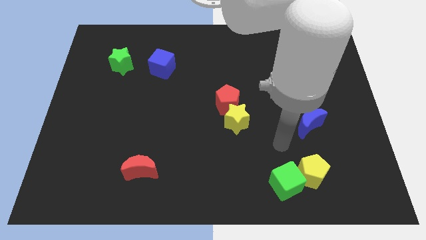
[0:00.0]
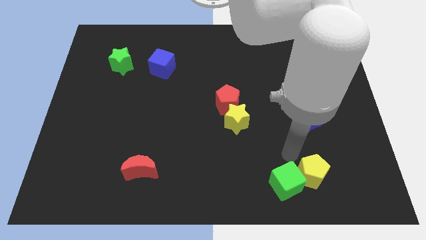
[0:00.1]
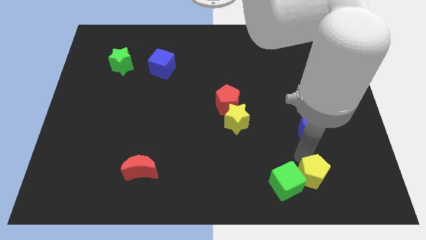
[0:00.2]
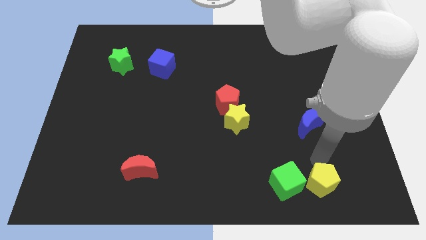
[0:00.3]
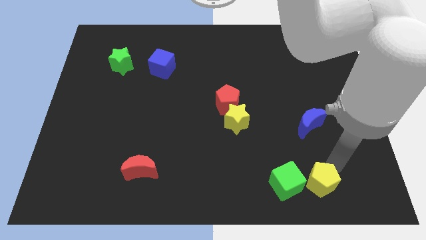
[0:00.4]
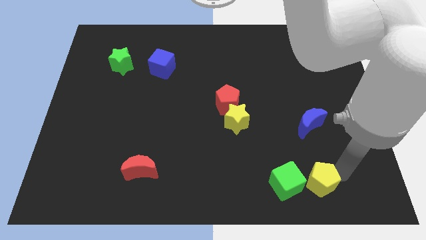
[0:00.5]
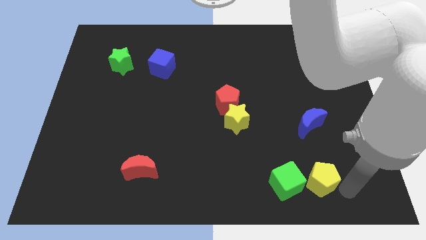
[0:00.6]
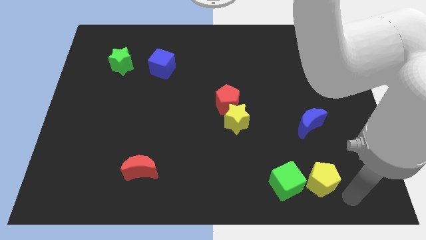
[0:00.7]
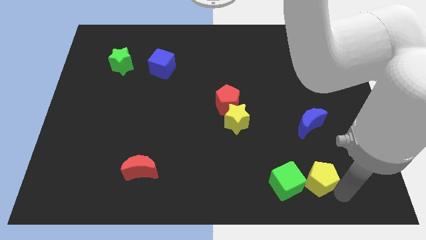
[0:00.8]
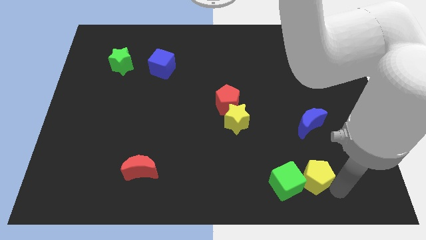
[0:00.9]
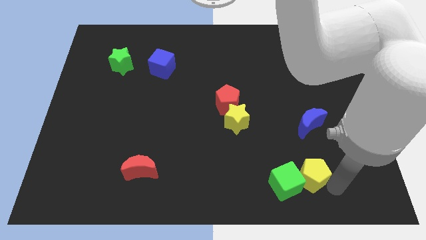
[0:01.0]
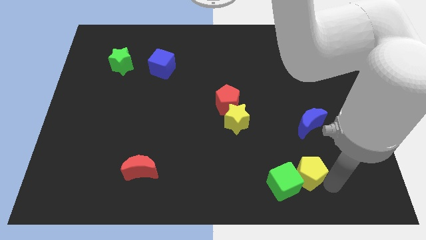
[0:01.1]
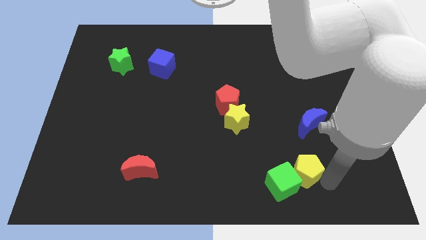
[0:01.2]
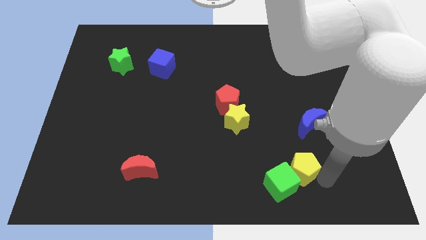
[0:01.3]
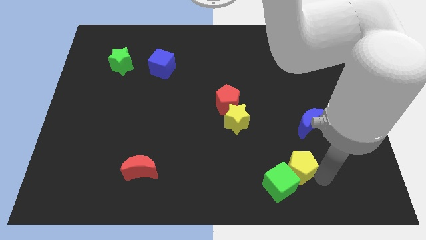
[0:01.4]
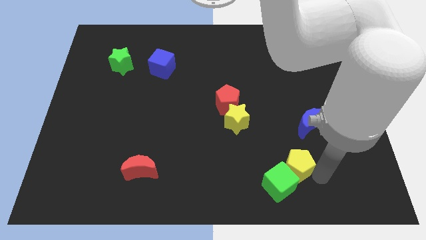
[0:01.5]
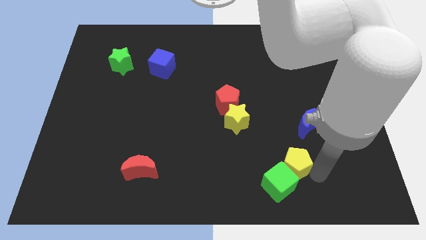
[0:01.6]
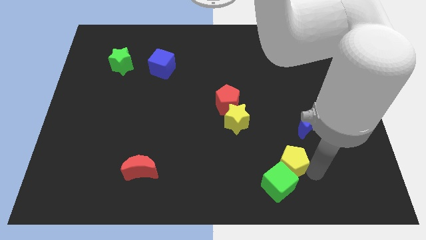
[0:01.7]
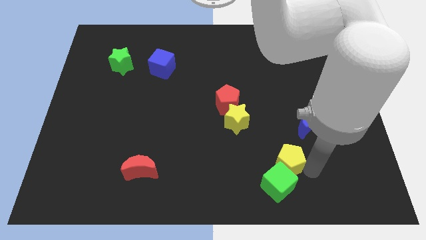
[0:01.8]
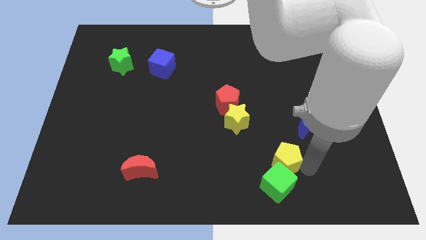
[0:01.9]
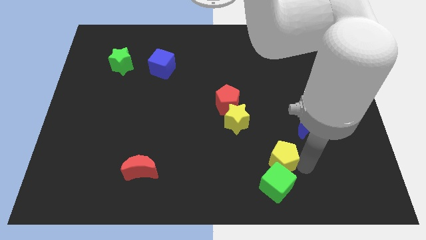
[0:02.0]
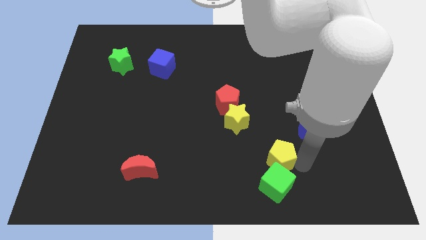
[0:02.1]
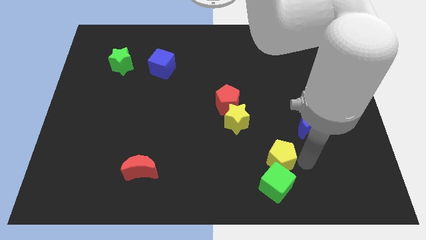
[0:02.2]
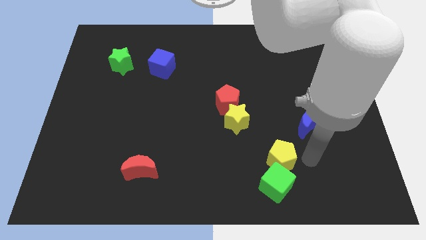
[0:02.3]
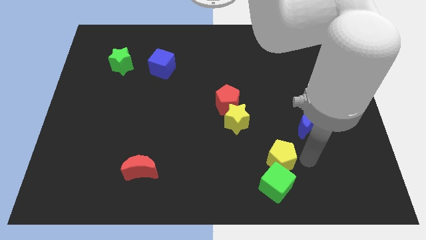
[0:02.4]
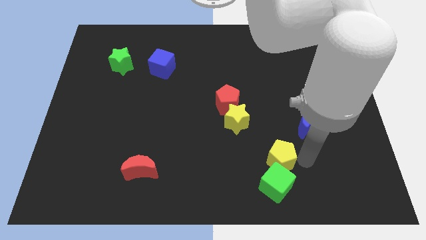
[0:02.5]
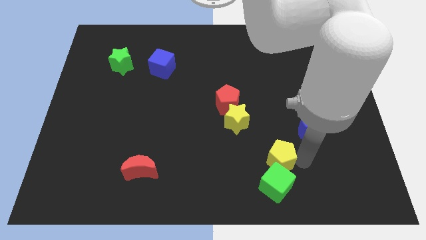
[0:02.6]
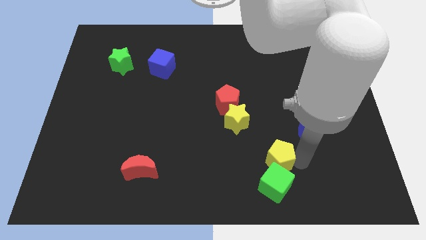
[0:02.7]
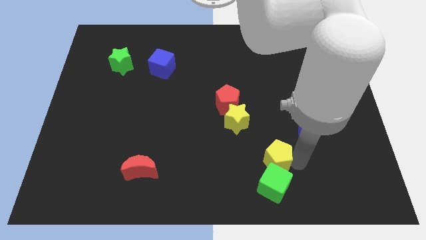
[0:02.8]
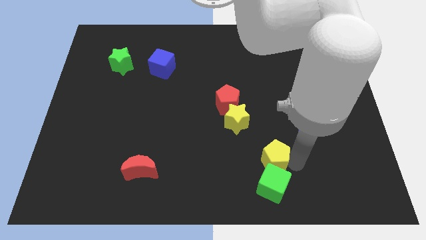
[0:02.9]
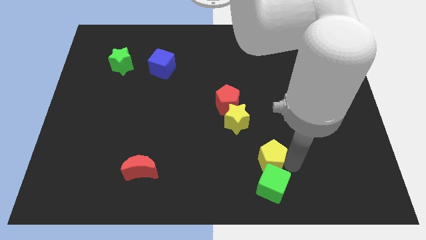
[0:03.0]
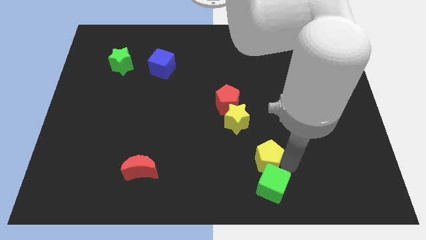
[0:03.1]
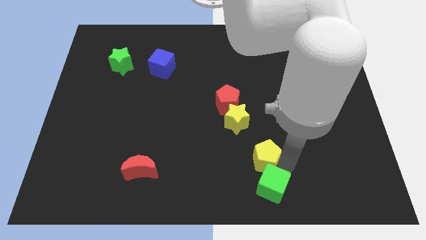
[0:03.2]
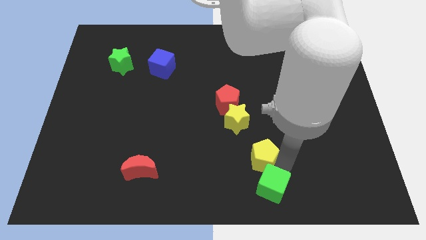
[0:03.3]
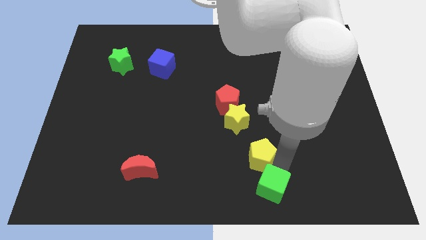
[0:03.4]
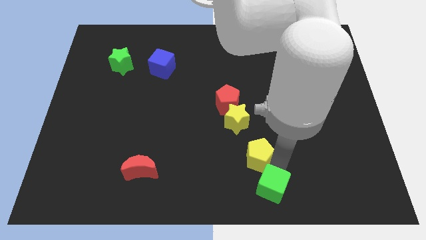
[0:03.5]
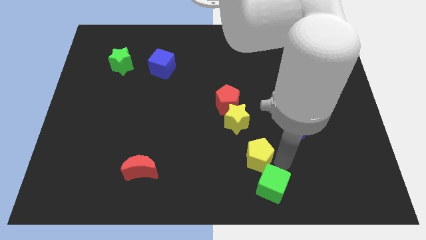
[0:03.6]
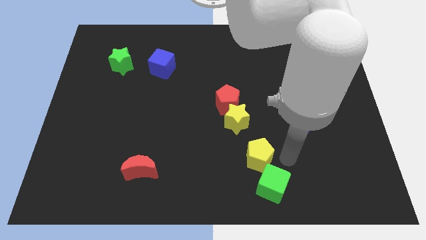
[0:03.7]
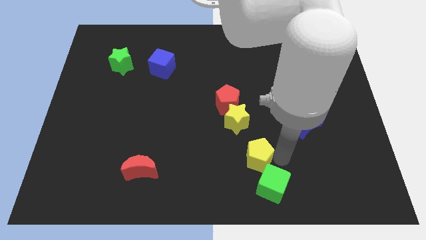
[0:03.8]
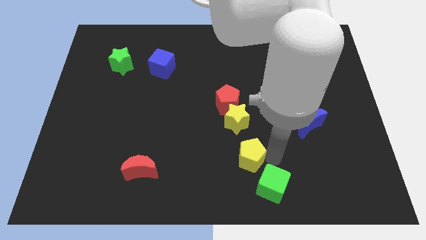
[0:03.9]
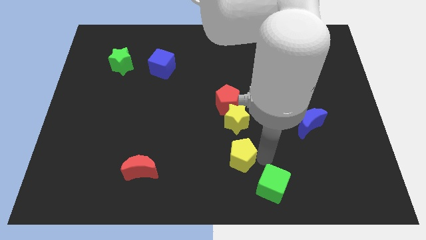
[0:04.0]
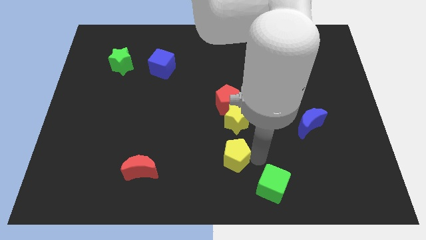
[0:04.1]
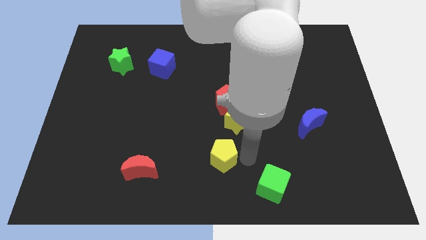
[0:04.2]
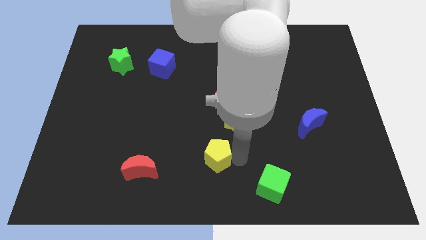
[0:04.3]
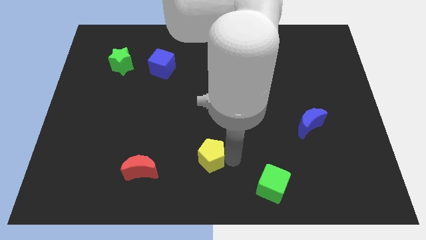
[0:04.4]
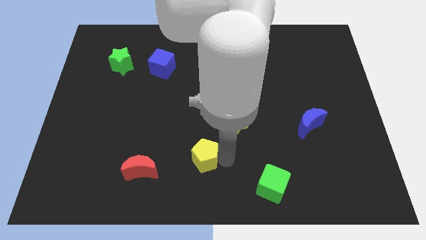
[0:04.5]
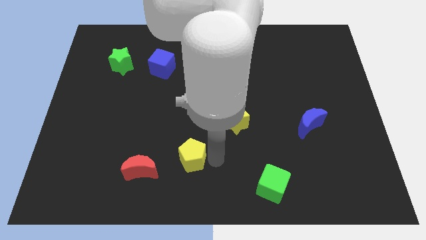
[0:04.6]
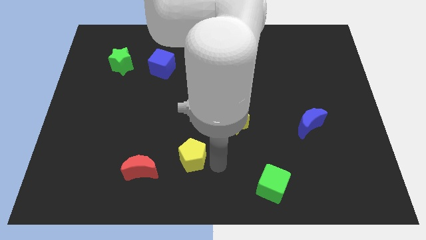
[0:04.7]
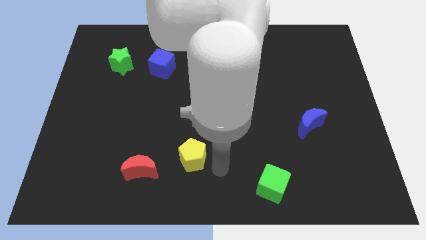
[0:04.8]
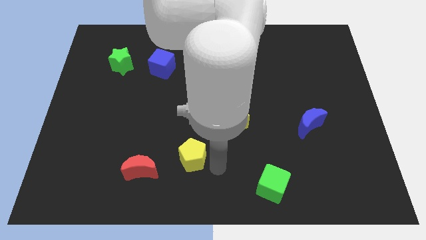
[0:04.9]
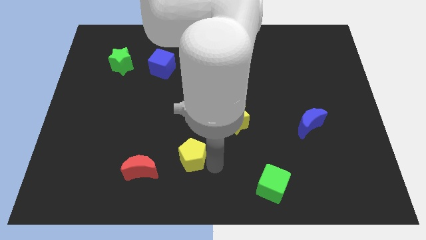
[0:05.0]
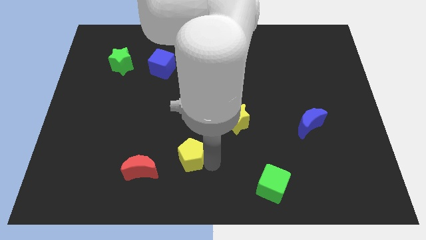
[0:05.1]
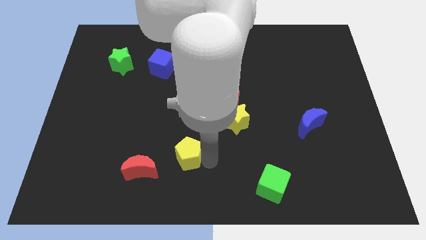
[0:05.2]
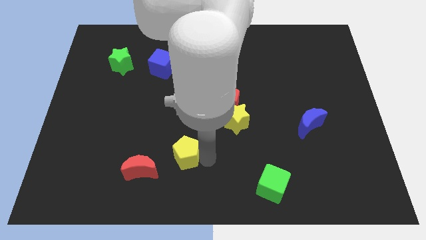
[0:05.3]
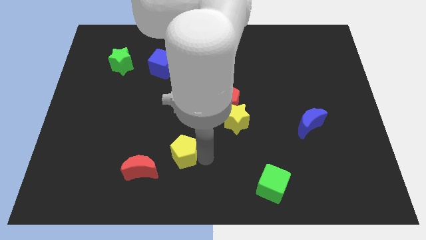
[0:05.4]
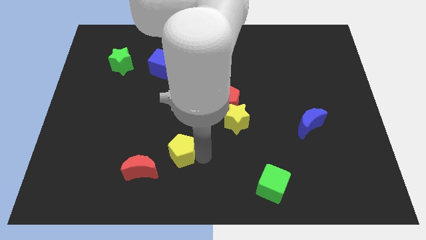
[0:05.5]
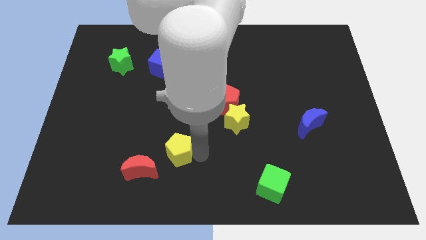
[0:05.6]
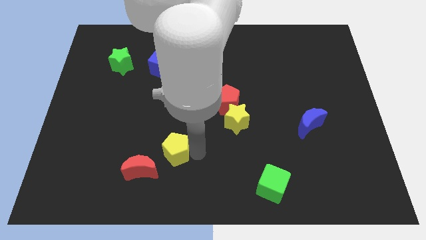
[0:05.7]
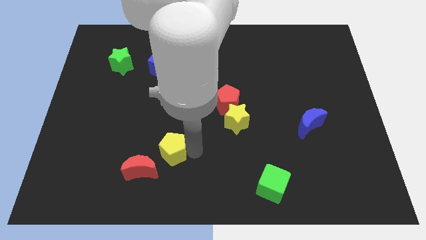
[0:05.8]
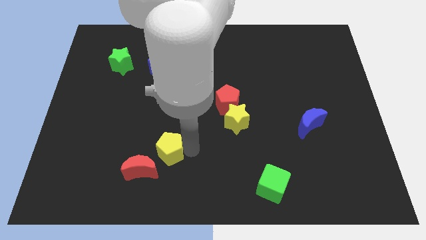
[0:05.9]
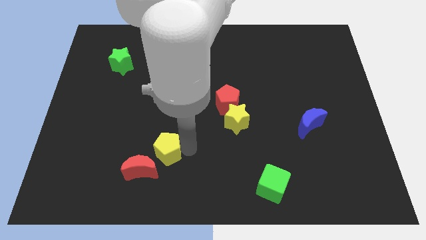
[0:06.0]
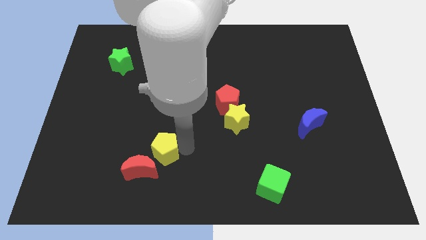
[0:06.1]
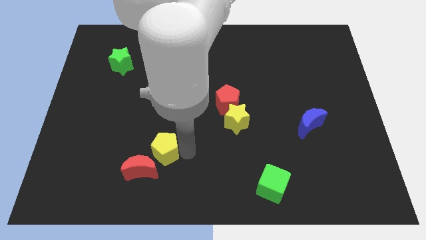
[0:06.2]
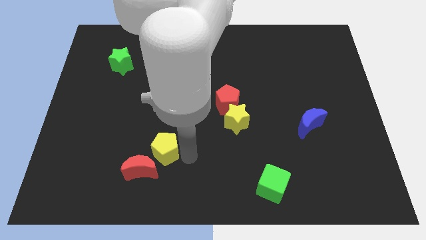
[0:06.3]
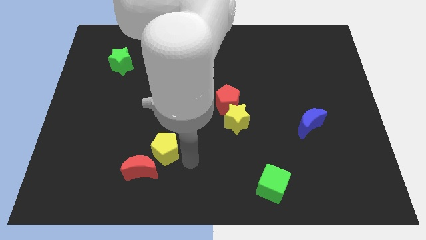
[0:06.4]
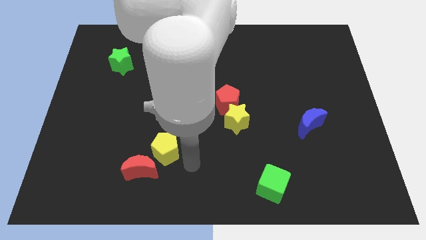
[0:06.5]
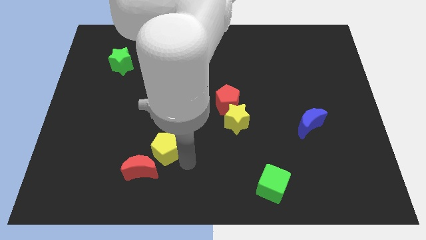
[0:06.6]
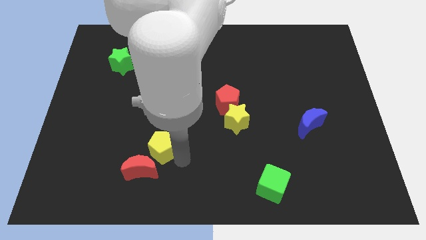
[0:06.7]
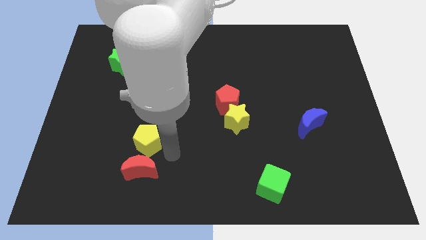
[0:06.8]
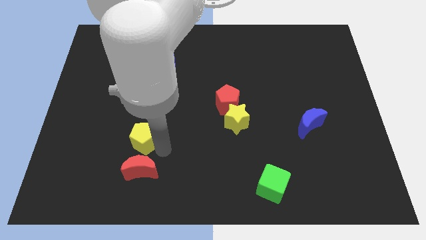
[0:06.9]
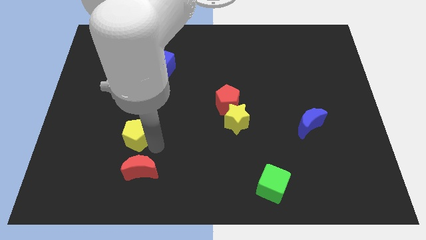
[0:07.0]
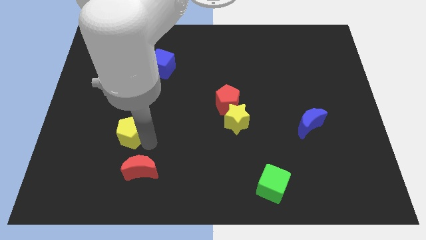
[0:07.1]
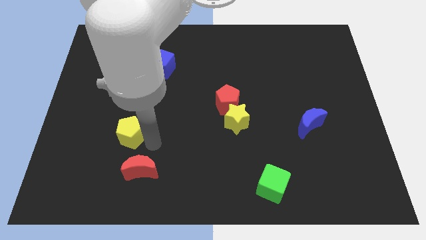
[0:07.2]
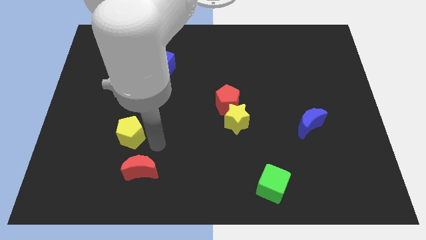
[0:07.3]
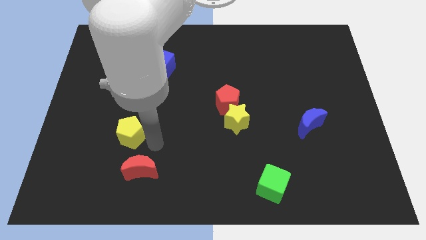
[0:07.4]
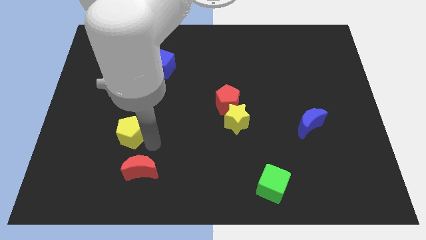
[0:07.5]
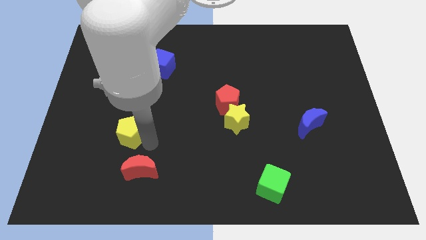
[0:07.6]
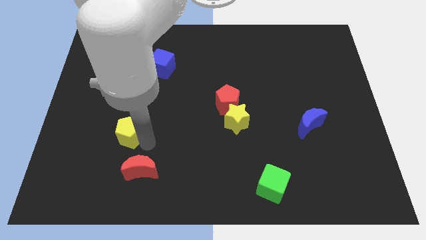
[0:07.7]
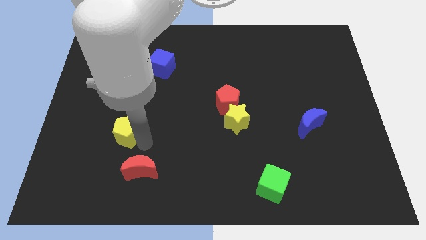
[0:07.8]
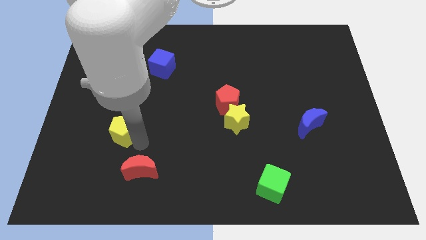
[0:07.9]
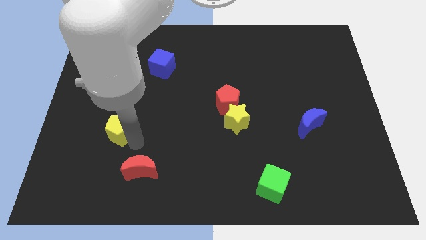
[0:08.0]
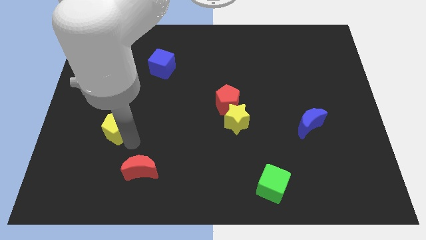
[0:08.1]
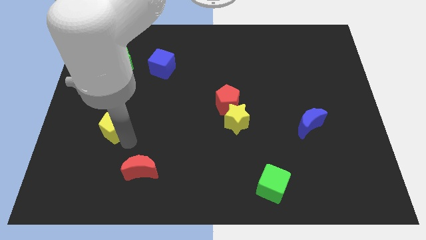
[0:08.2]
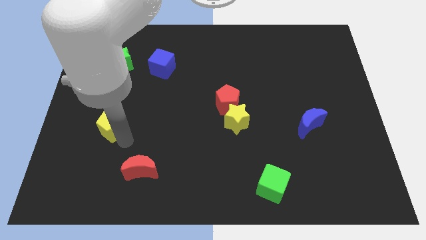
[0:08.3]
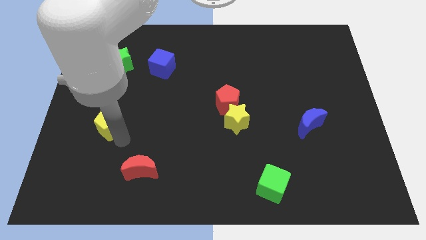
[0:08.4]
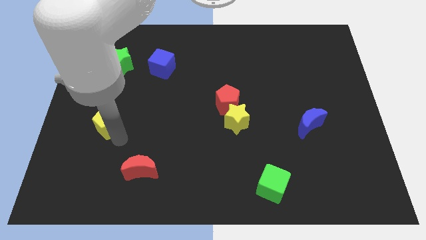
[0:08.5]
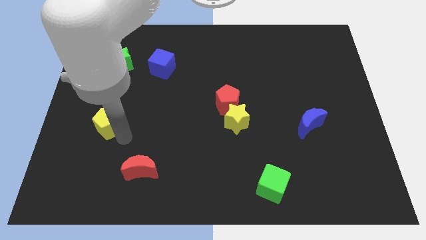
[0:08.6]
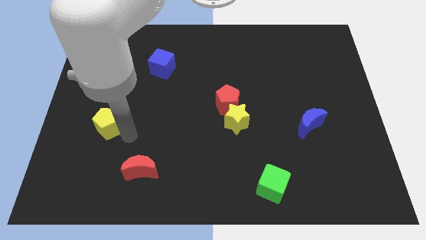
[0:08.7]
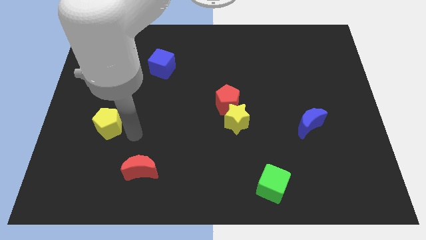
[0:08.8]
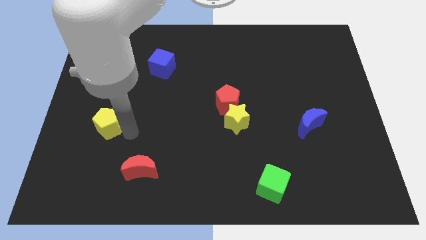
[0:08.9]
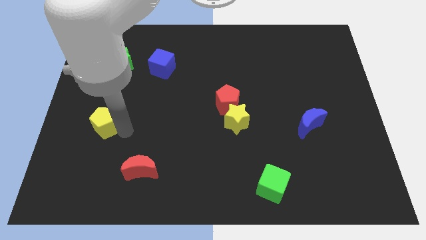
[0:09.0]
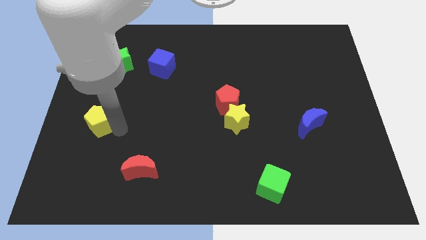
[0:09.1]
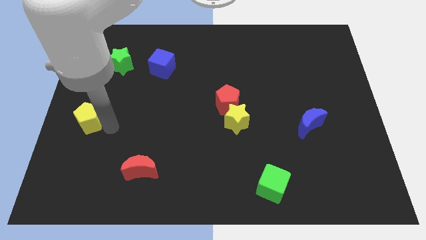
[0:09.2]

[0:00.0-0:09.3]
slide the yellow pentagon to the left side
